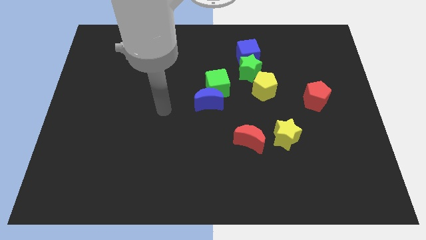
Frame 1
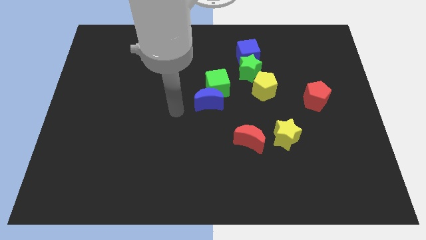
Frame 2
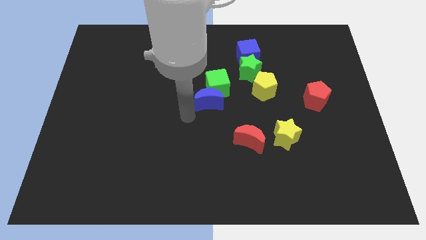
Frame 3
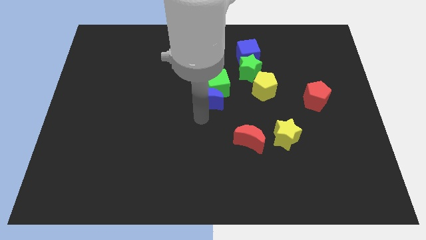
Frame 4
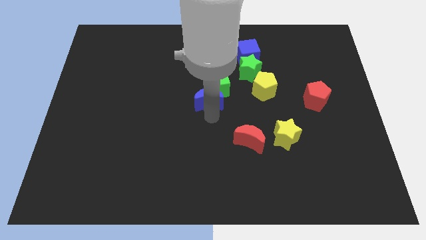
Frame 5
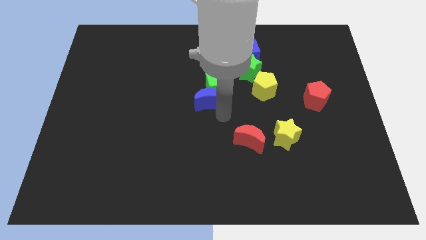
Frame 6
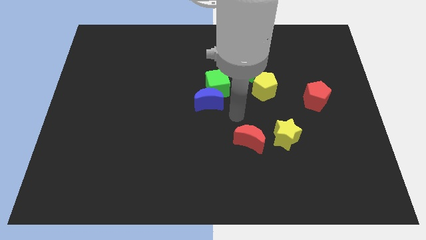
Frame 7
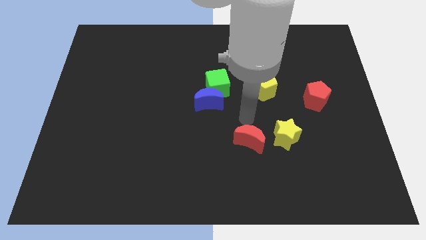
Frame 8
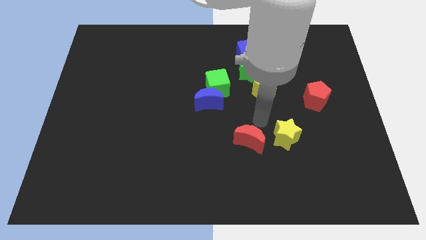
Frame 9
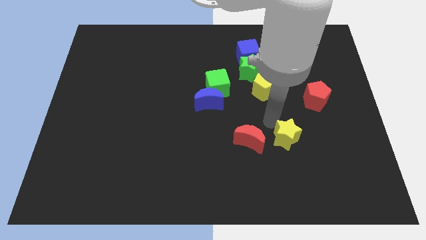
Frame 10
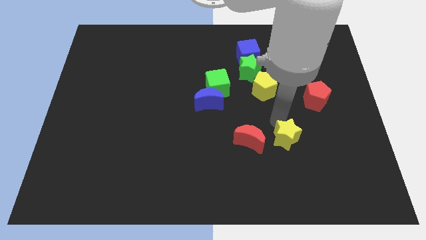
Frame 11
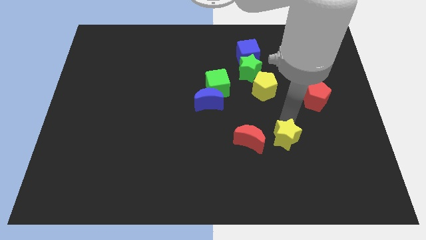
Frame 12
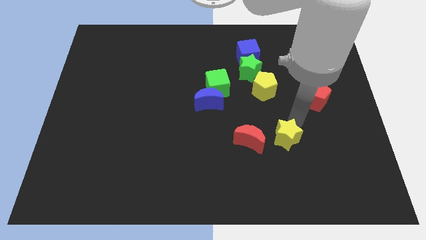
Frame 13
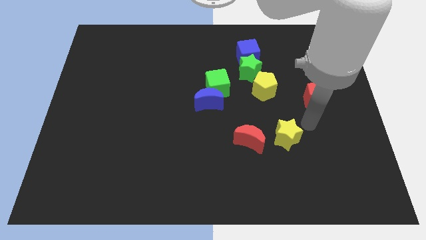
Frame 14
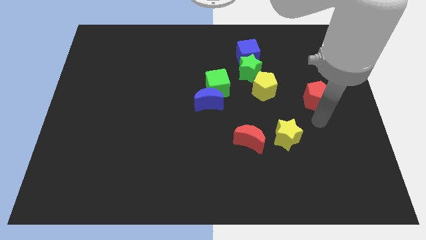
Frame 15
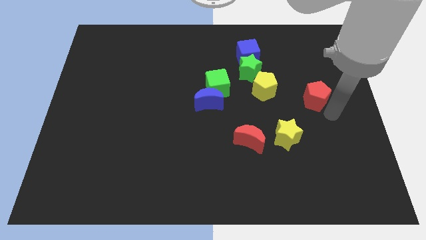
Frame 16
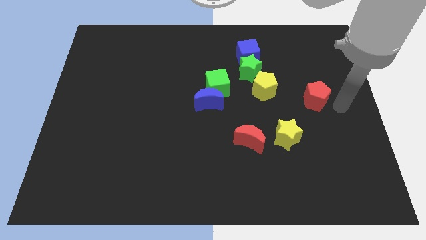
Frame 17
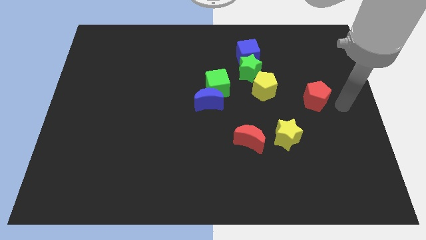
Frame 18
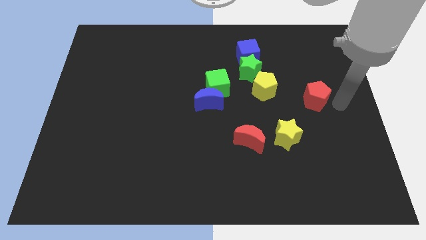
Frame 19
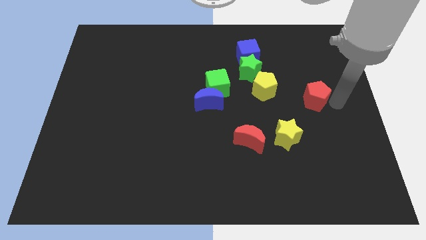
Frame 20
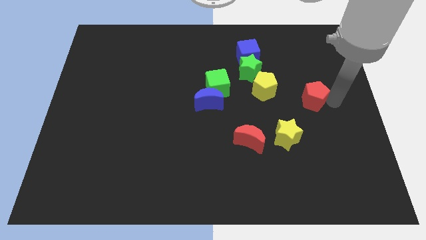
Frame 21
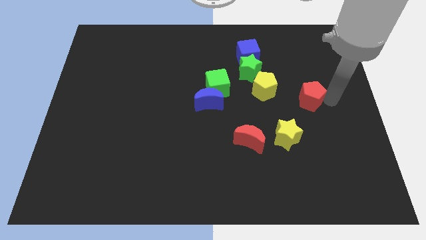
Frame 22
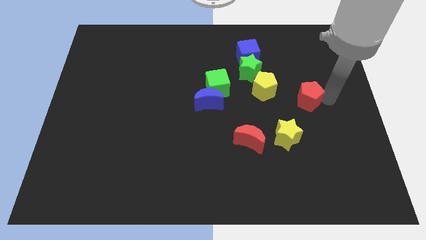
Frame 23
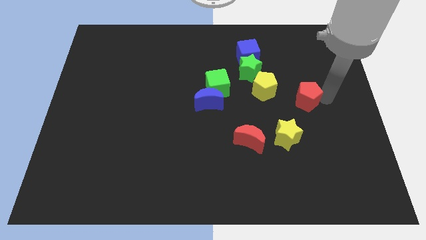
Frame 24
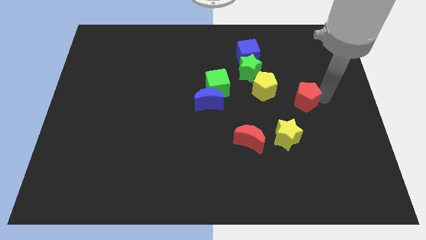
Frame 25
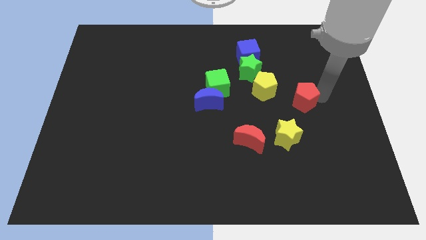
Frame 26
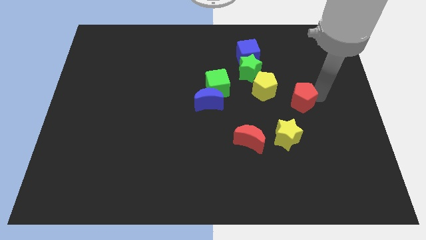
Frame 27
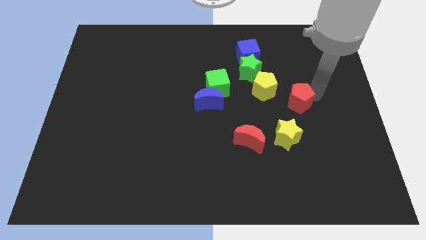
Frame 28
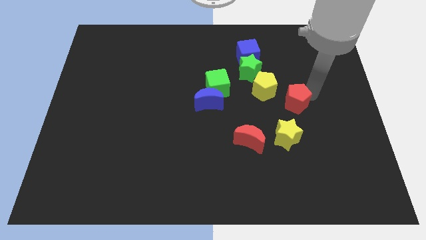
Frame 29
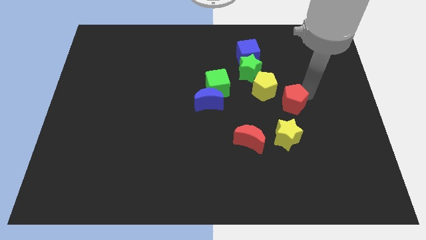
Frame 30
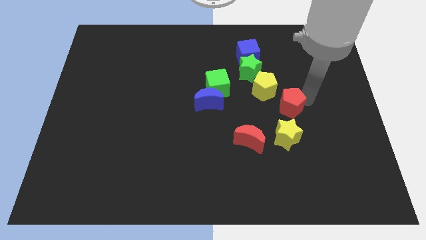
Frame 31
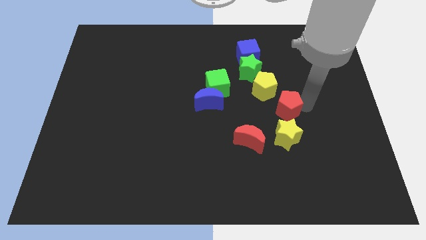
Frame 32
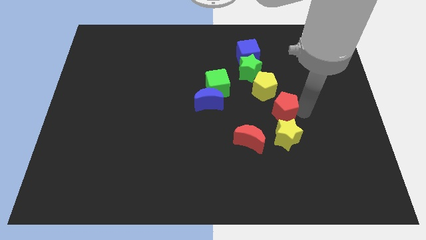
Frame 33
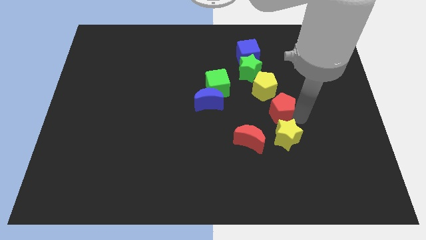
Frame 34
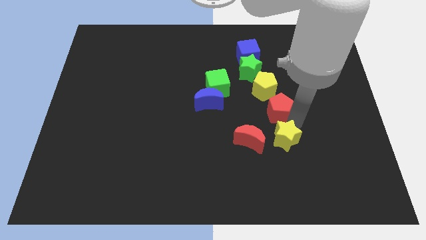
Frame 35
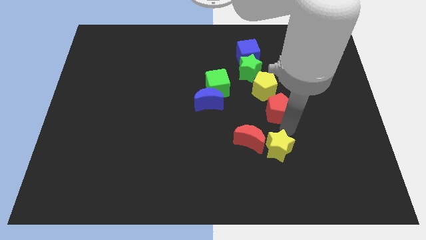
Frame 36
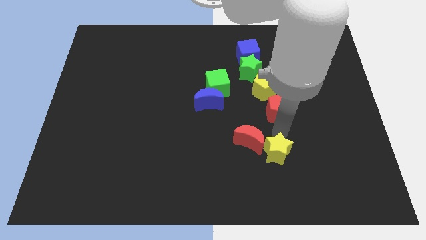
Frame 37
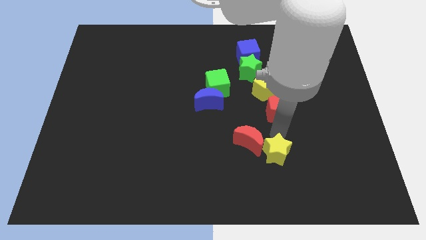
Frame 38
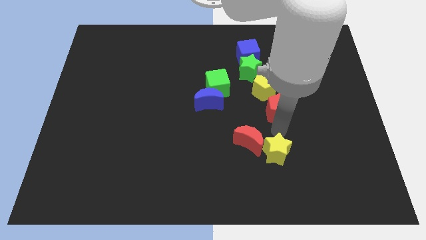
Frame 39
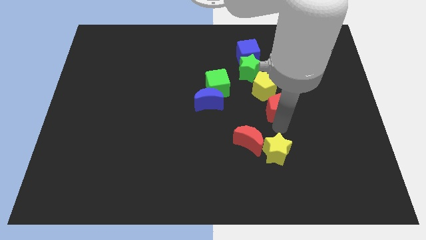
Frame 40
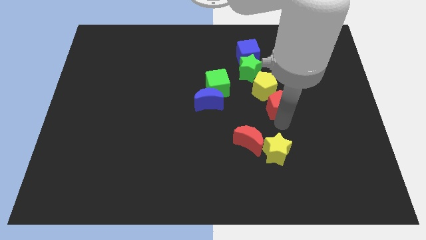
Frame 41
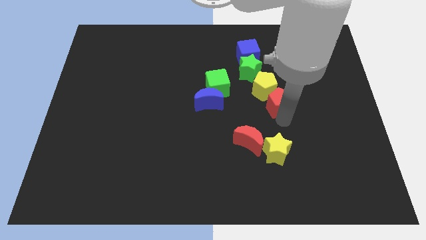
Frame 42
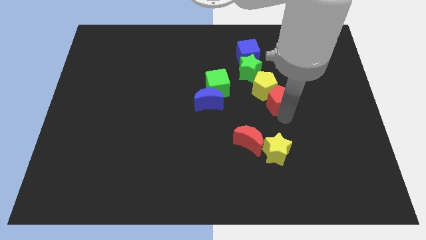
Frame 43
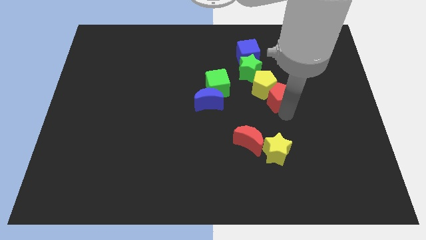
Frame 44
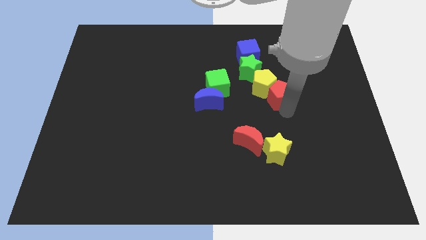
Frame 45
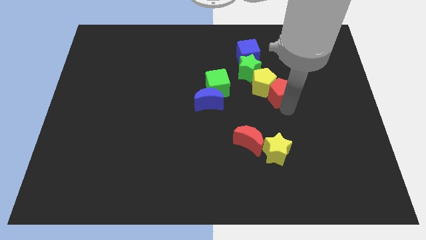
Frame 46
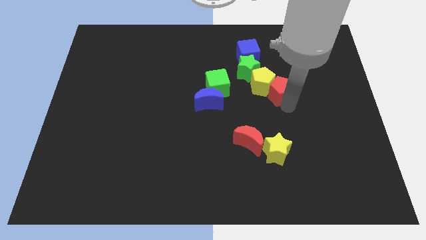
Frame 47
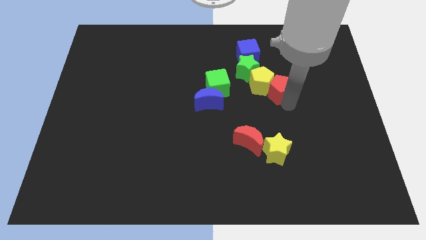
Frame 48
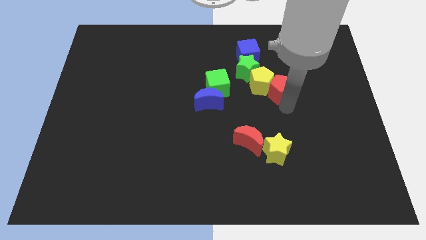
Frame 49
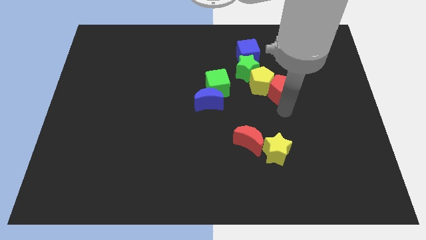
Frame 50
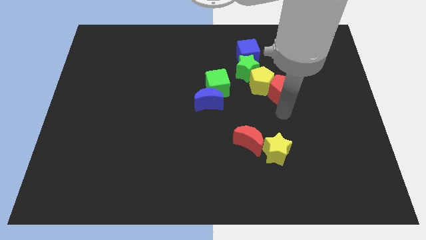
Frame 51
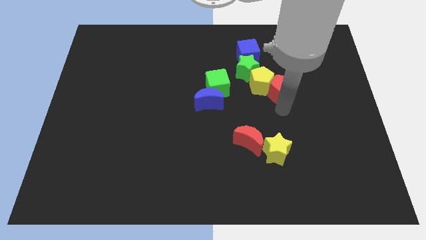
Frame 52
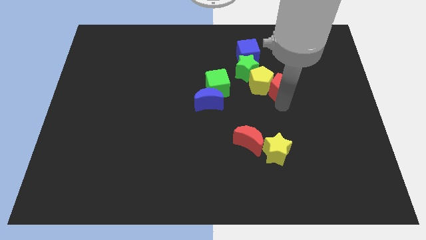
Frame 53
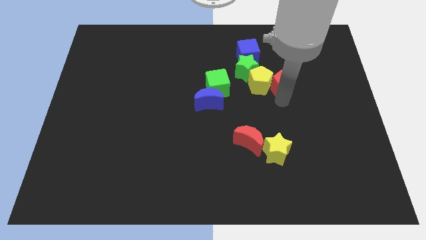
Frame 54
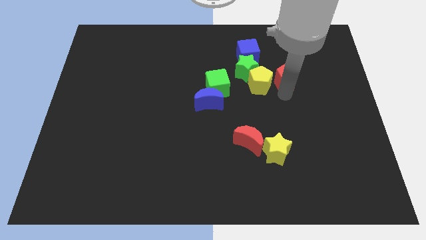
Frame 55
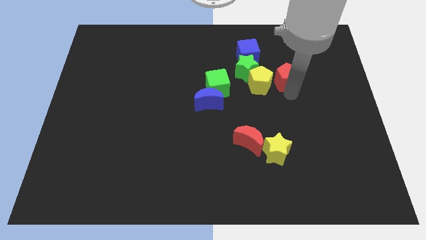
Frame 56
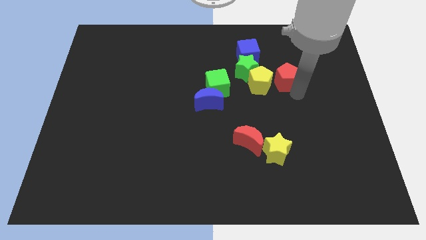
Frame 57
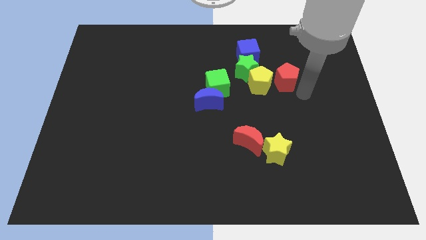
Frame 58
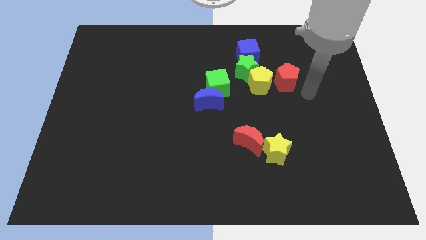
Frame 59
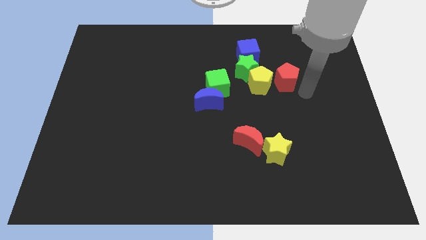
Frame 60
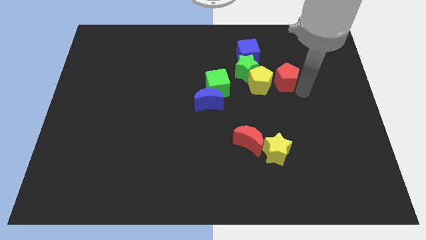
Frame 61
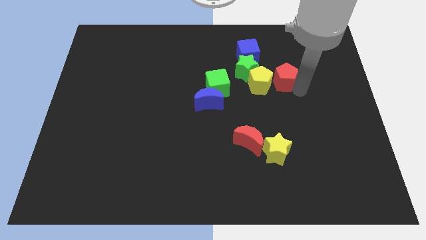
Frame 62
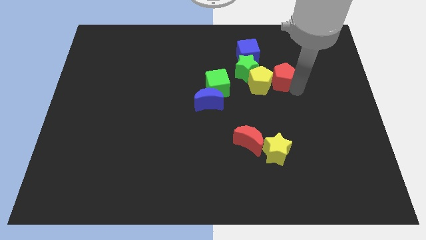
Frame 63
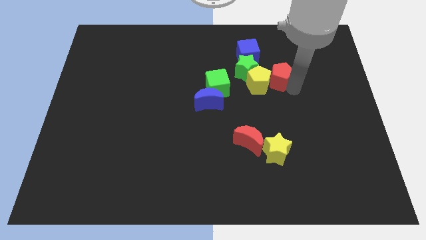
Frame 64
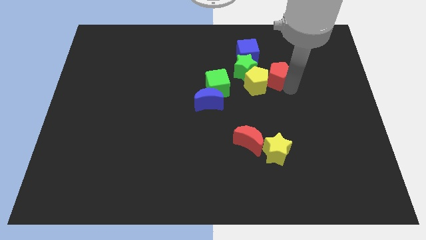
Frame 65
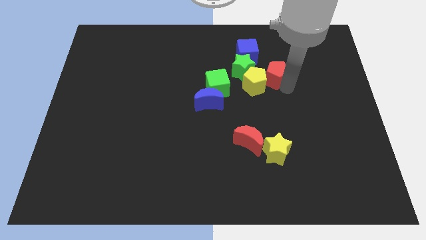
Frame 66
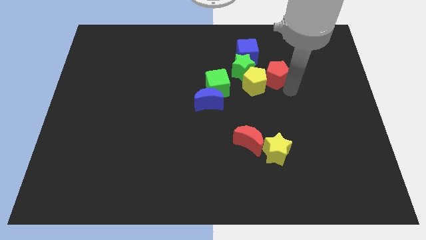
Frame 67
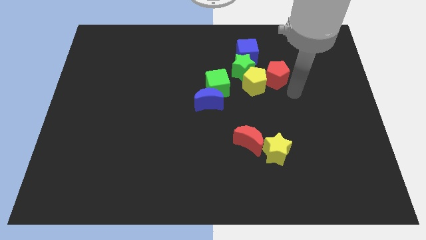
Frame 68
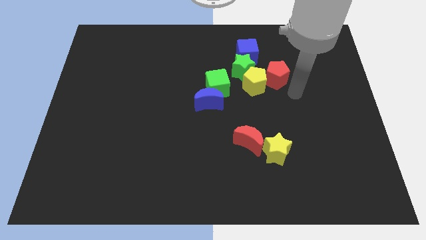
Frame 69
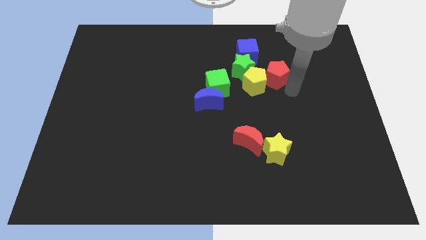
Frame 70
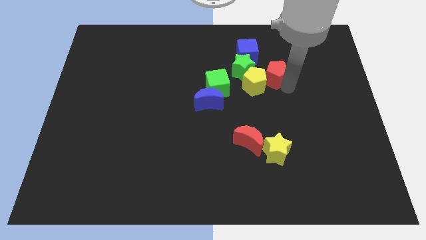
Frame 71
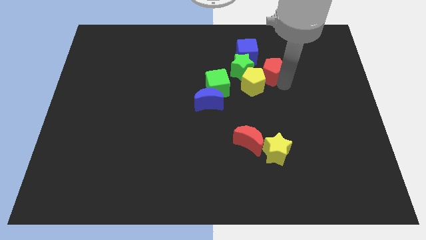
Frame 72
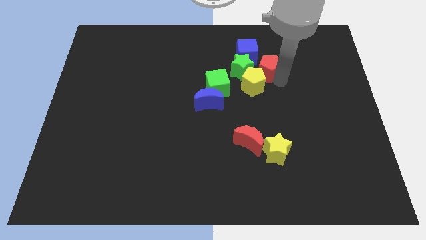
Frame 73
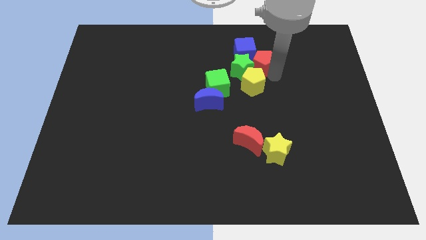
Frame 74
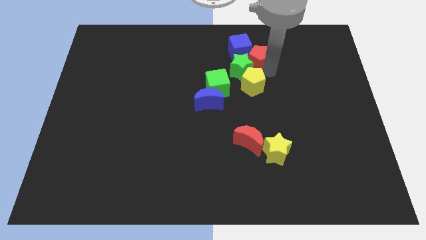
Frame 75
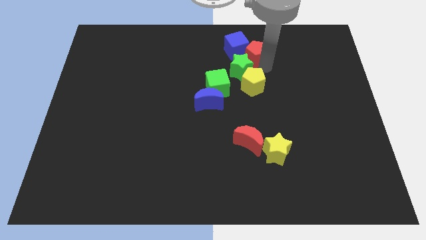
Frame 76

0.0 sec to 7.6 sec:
slide the red pentagon towards the blue cube
